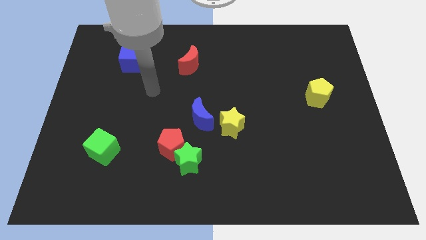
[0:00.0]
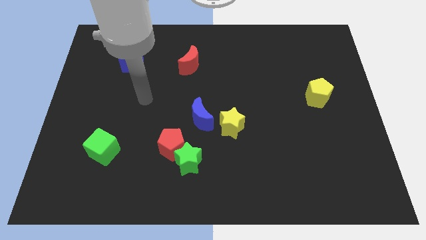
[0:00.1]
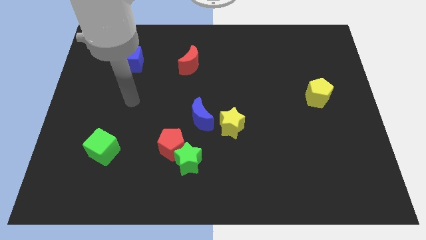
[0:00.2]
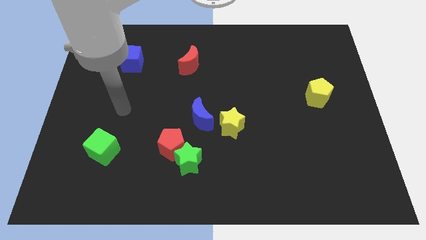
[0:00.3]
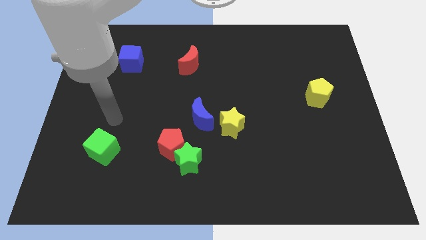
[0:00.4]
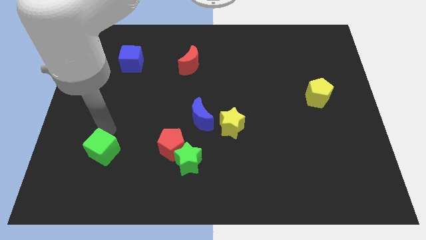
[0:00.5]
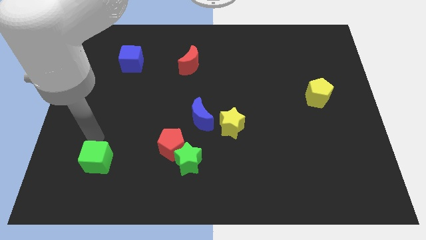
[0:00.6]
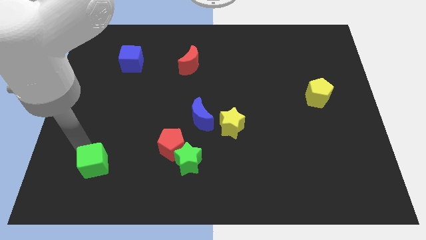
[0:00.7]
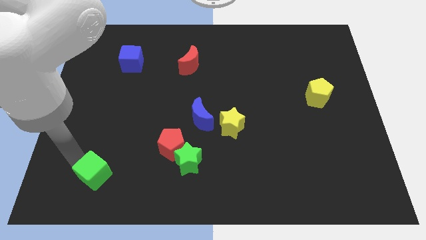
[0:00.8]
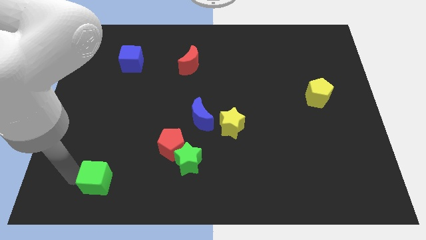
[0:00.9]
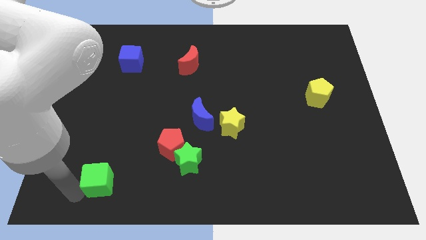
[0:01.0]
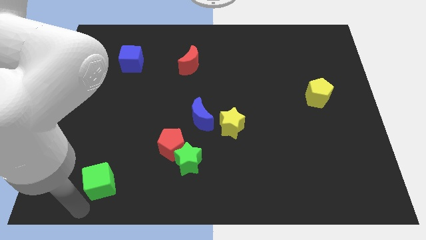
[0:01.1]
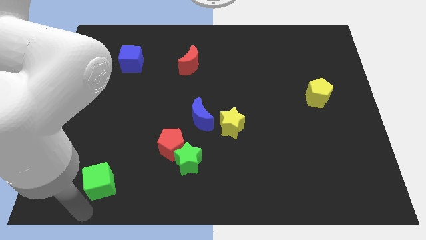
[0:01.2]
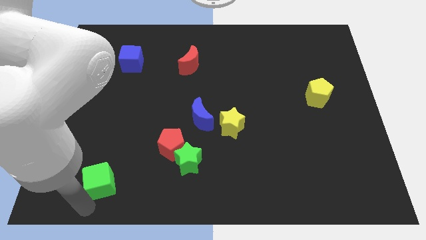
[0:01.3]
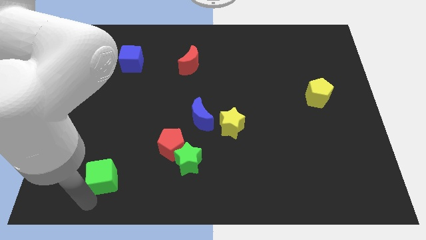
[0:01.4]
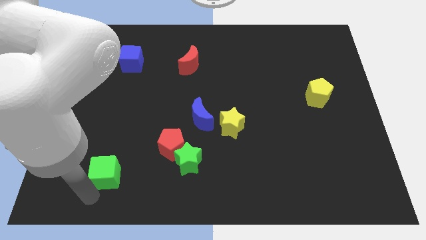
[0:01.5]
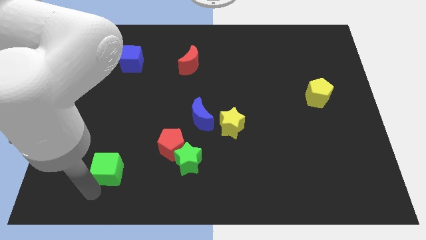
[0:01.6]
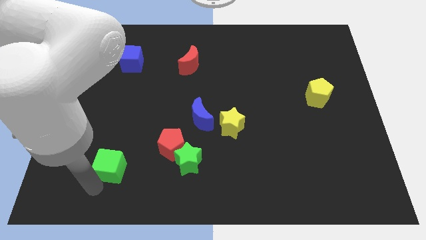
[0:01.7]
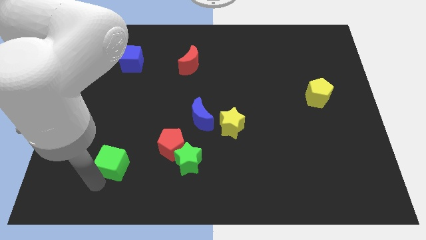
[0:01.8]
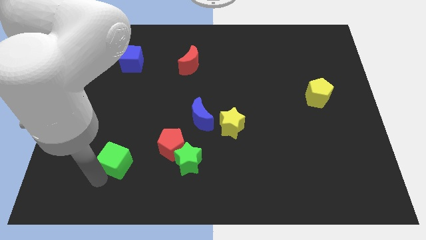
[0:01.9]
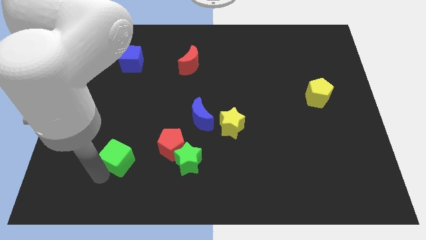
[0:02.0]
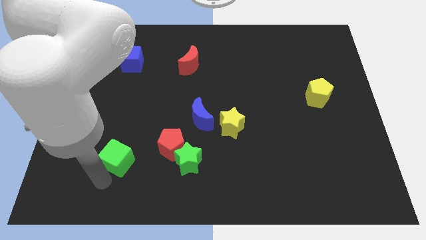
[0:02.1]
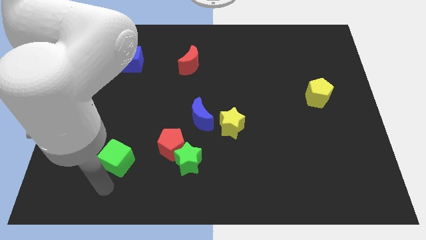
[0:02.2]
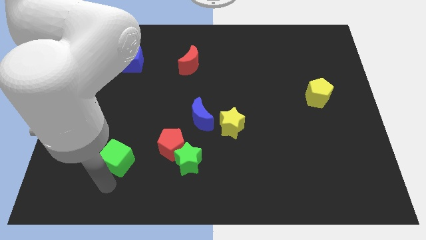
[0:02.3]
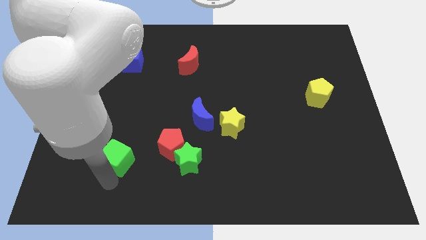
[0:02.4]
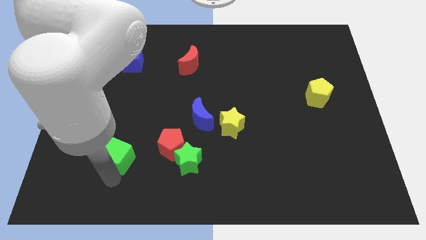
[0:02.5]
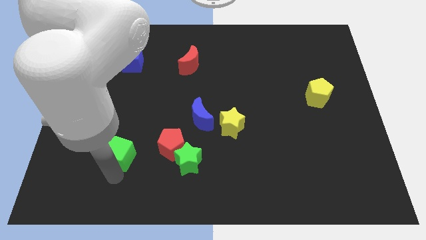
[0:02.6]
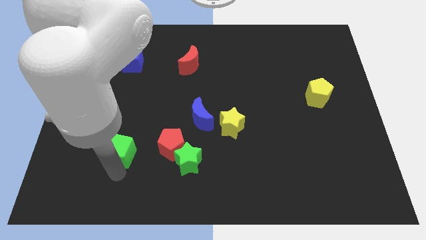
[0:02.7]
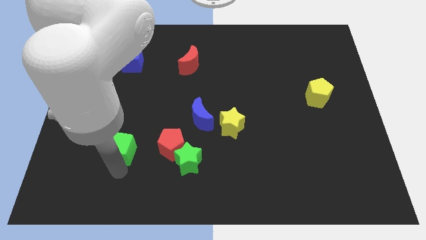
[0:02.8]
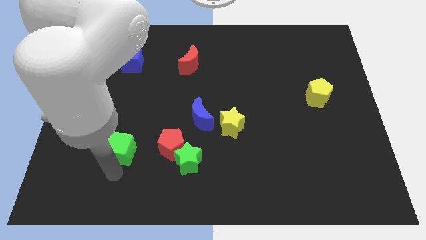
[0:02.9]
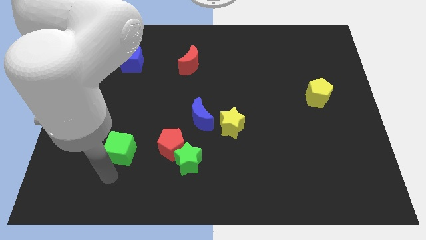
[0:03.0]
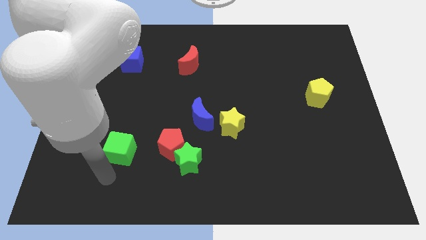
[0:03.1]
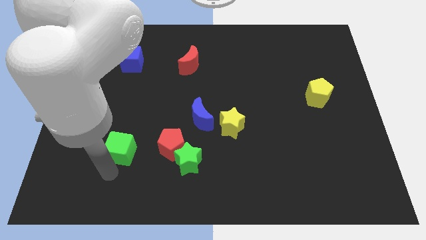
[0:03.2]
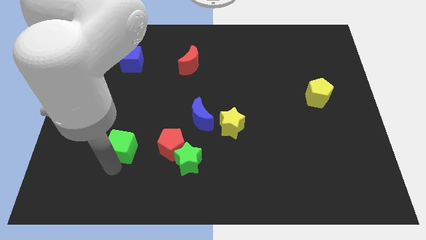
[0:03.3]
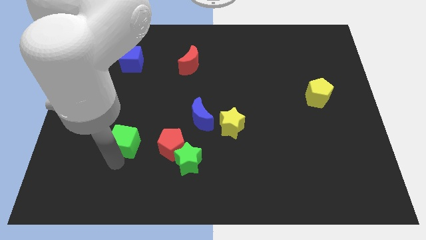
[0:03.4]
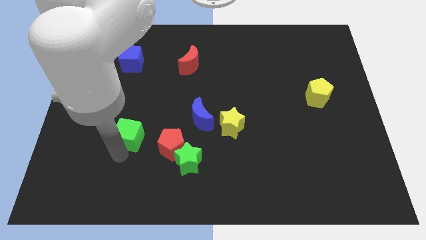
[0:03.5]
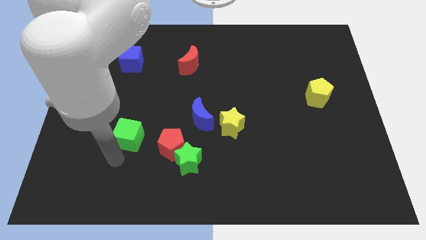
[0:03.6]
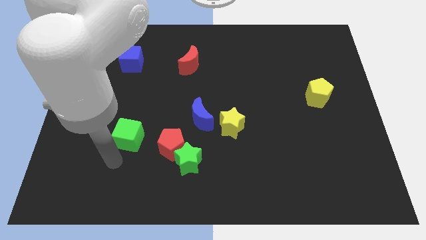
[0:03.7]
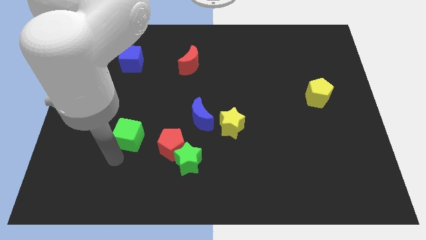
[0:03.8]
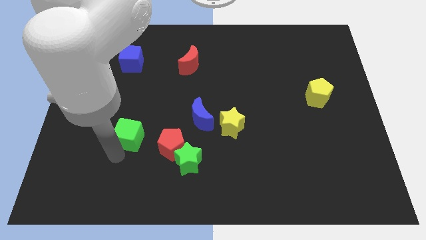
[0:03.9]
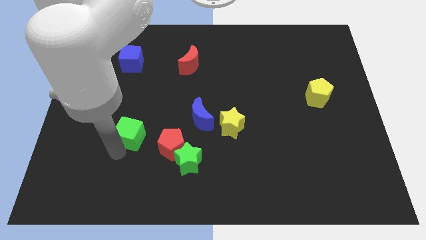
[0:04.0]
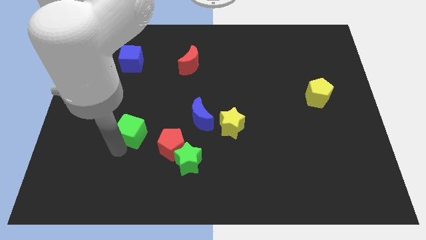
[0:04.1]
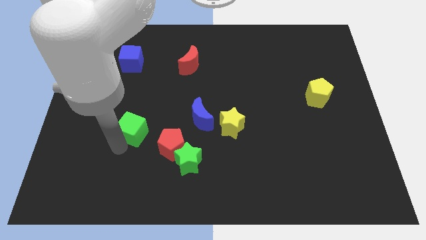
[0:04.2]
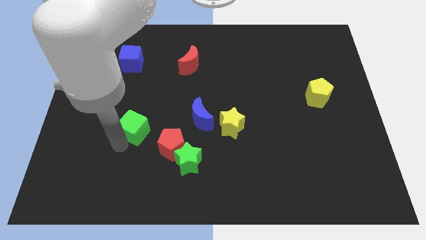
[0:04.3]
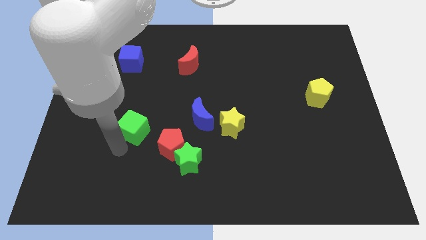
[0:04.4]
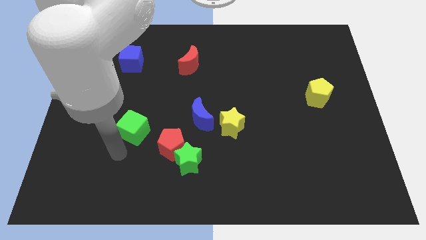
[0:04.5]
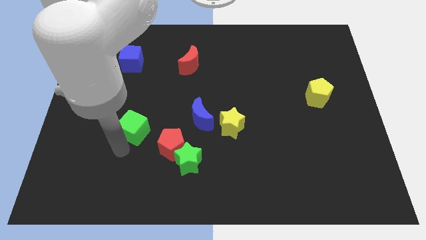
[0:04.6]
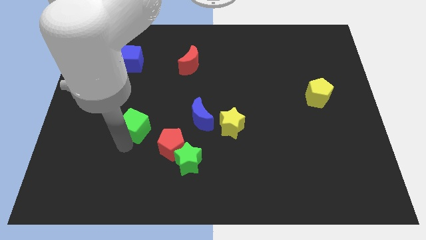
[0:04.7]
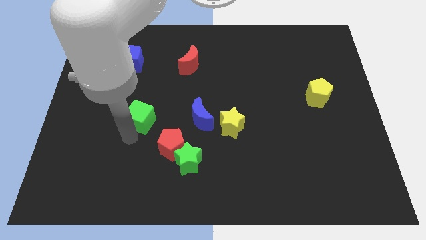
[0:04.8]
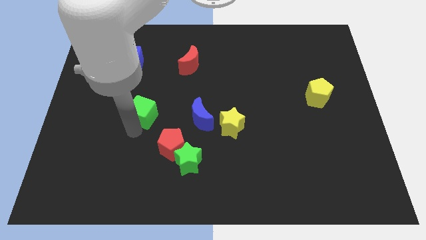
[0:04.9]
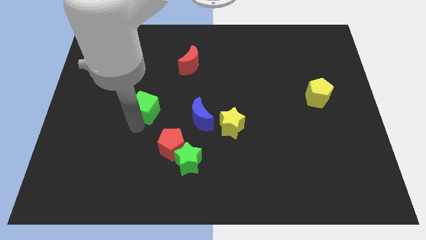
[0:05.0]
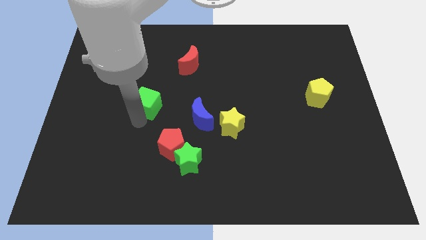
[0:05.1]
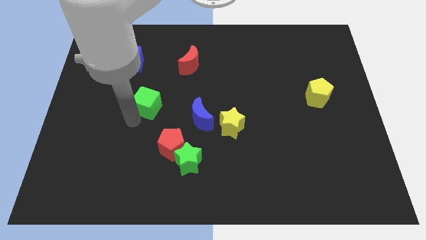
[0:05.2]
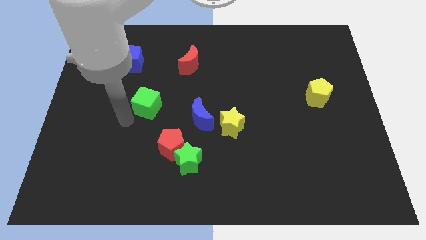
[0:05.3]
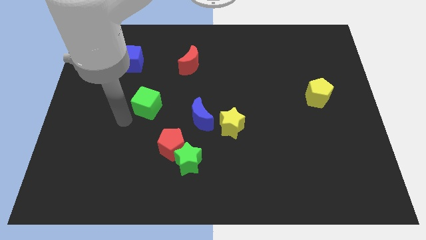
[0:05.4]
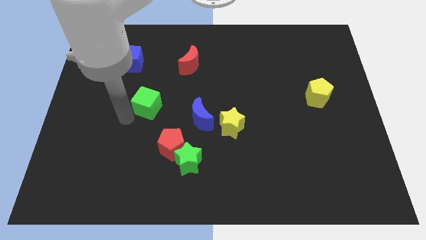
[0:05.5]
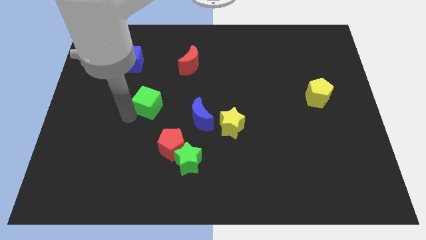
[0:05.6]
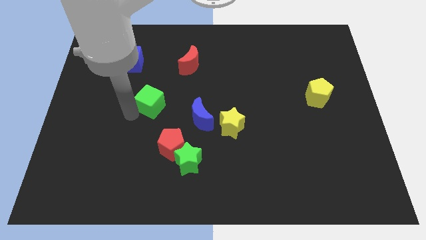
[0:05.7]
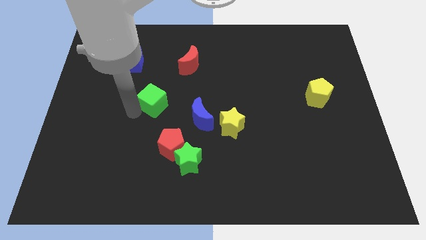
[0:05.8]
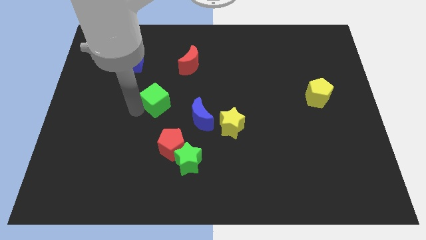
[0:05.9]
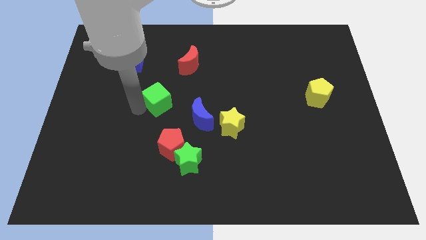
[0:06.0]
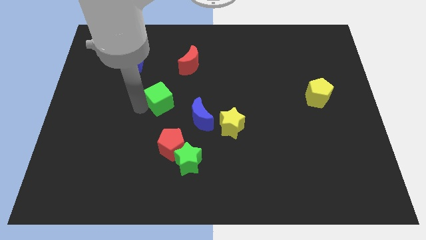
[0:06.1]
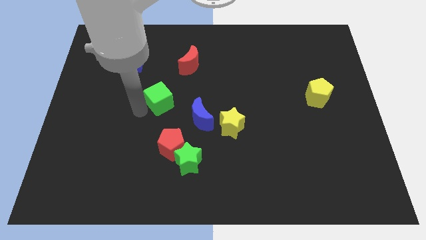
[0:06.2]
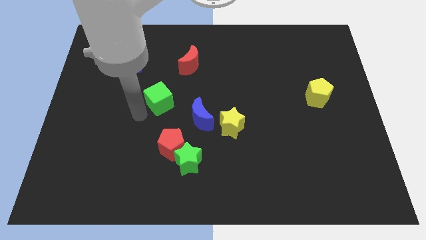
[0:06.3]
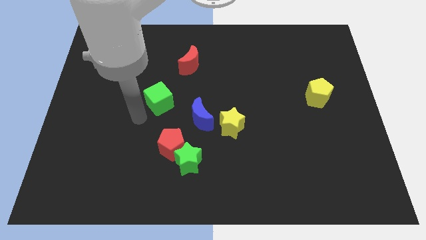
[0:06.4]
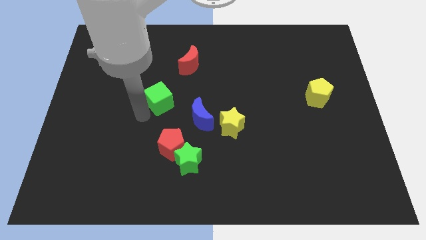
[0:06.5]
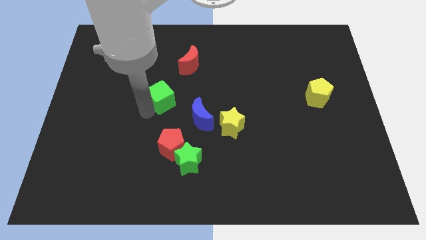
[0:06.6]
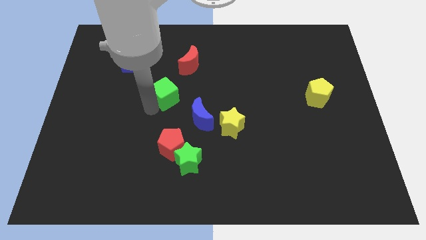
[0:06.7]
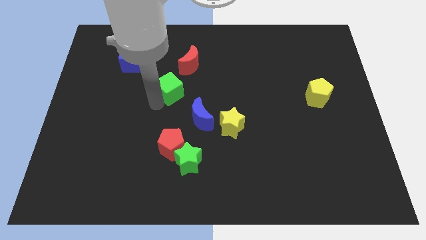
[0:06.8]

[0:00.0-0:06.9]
move the green cube up and right diagonally

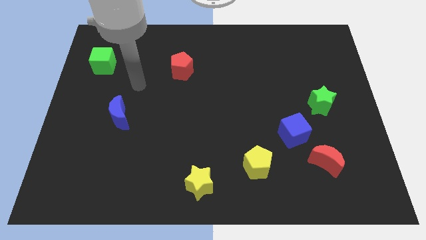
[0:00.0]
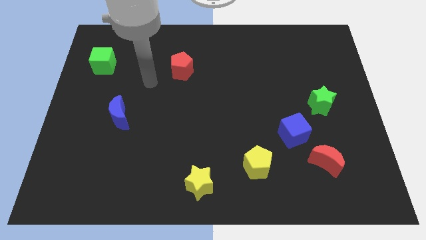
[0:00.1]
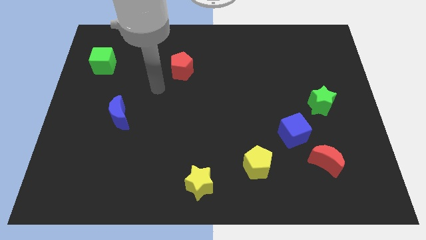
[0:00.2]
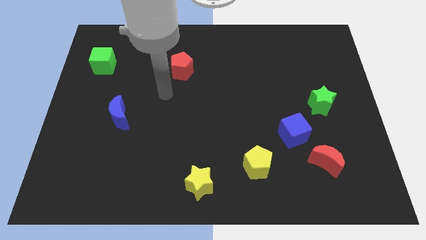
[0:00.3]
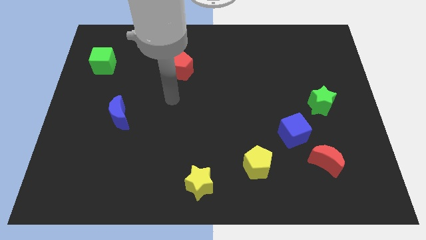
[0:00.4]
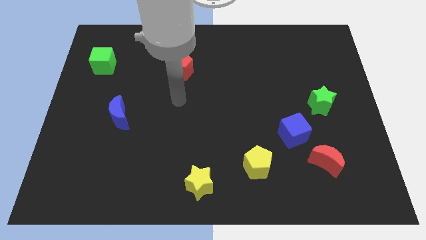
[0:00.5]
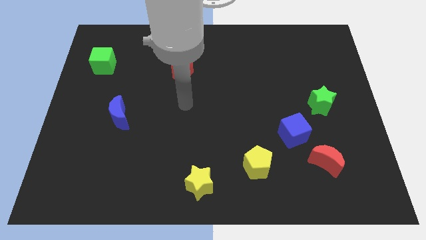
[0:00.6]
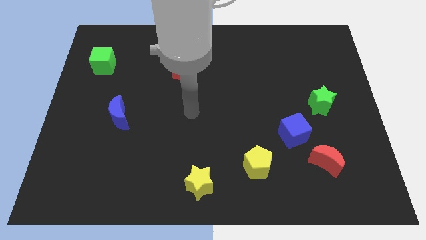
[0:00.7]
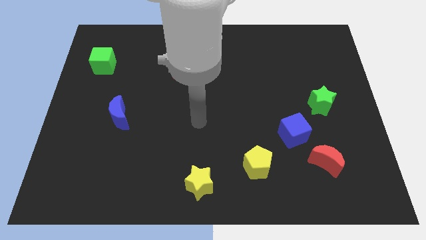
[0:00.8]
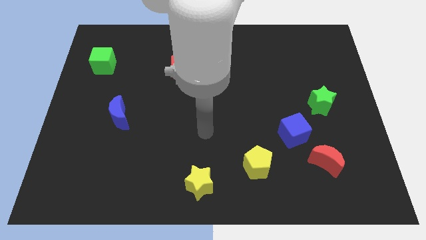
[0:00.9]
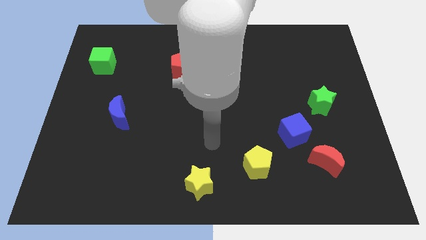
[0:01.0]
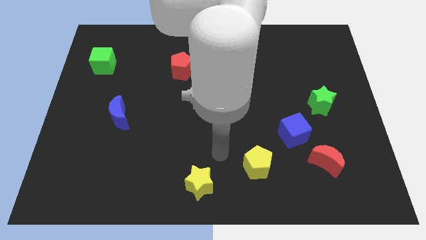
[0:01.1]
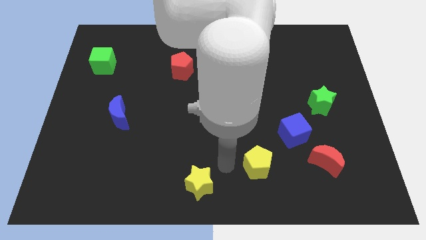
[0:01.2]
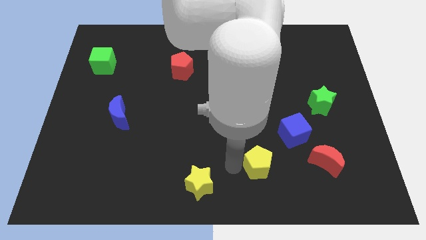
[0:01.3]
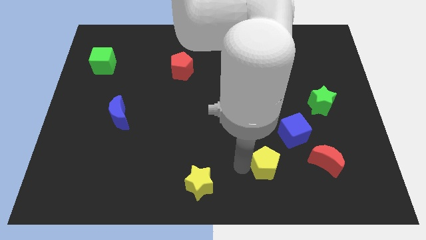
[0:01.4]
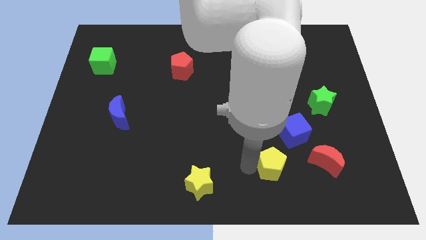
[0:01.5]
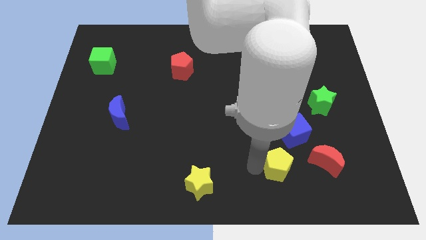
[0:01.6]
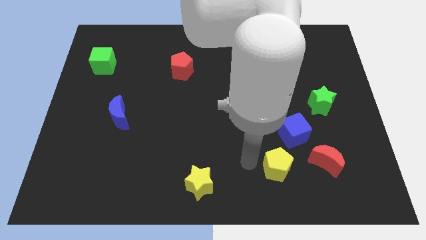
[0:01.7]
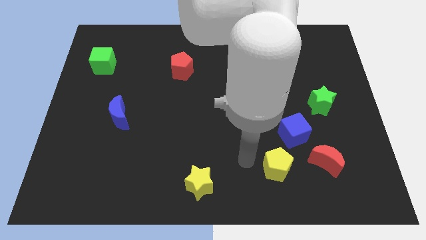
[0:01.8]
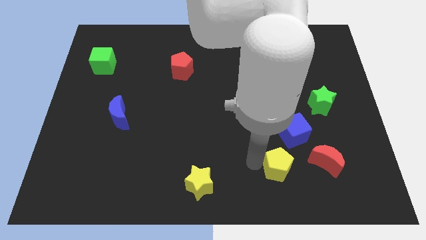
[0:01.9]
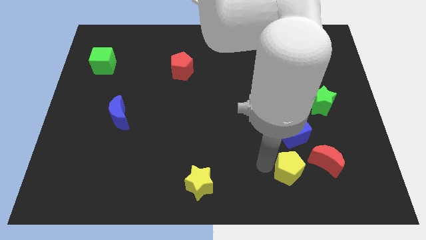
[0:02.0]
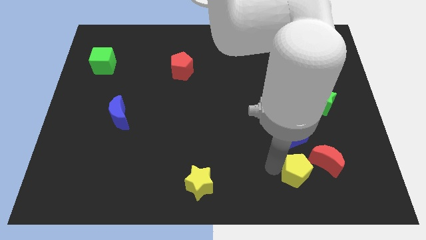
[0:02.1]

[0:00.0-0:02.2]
slide the yellow pentagon to the right a little bit
